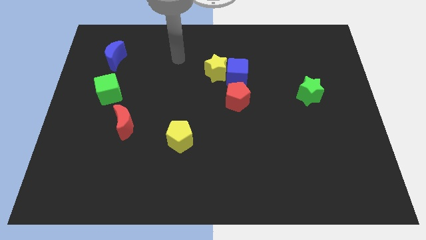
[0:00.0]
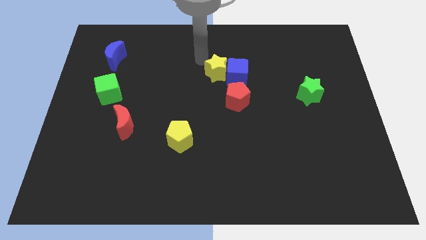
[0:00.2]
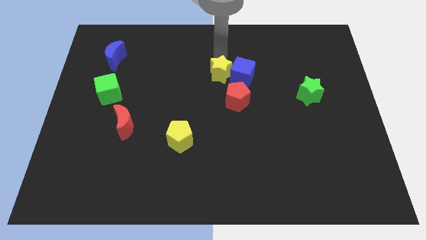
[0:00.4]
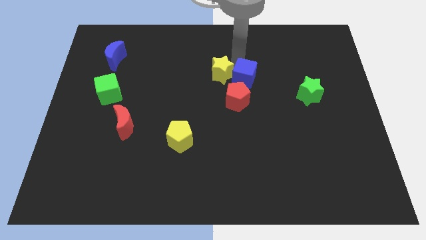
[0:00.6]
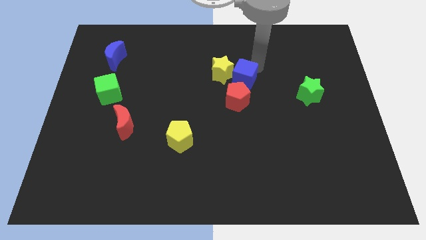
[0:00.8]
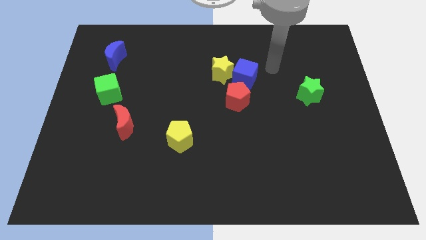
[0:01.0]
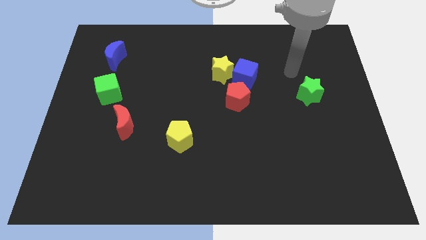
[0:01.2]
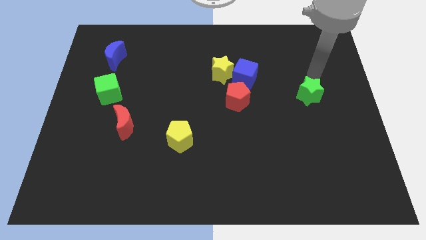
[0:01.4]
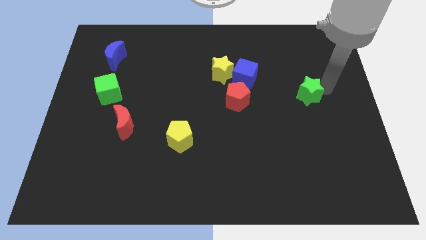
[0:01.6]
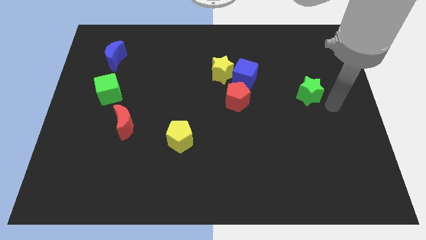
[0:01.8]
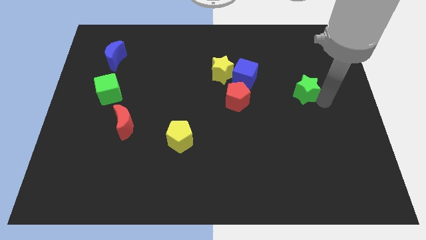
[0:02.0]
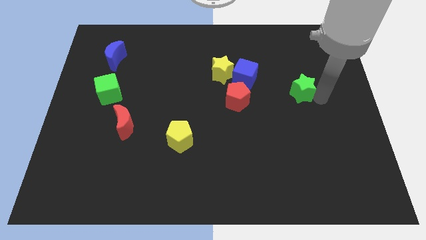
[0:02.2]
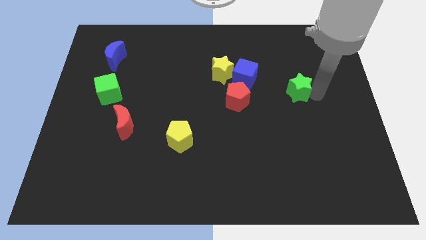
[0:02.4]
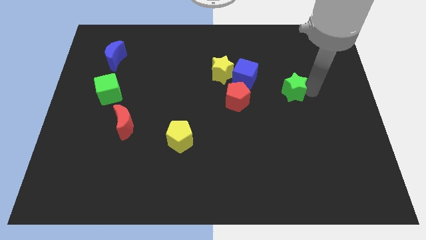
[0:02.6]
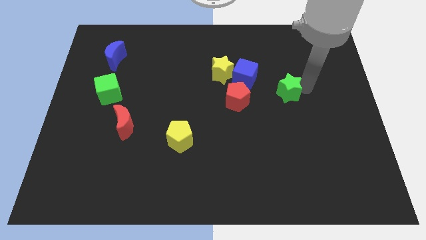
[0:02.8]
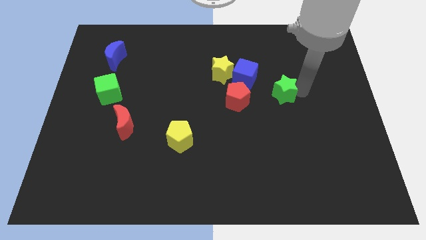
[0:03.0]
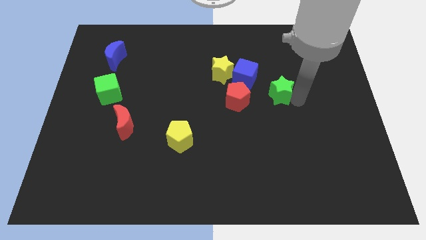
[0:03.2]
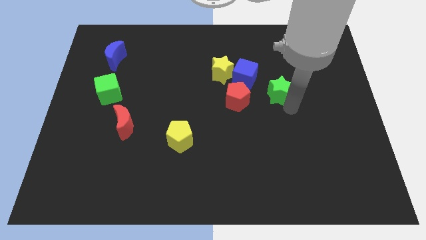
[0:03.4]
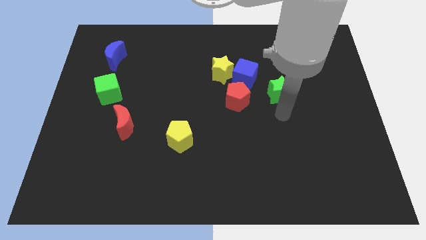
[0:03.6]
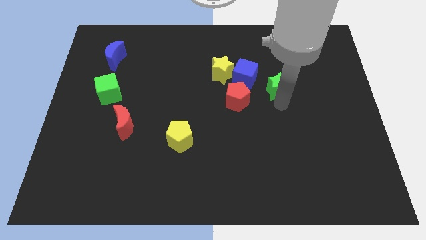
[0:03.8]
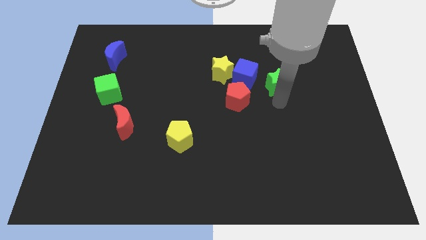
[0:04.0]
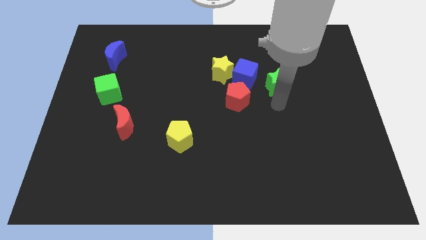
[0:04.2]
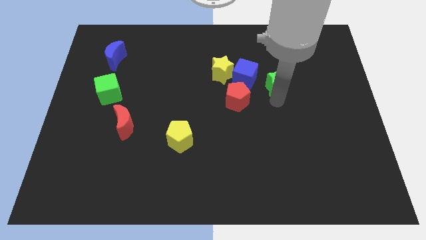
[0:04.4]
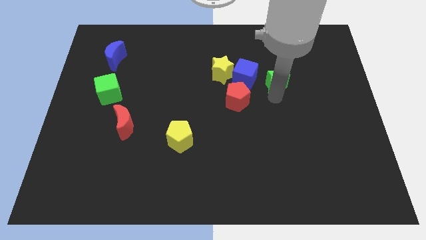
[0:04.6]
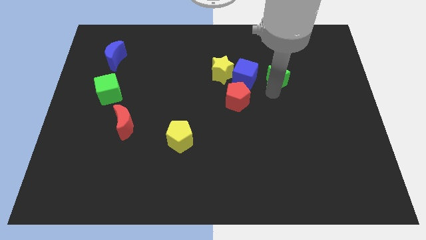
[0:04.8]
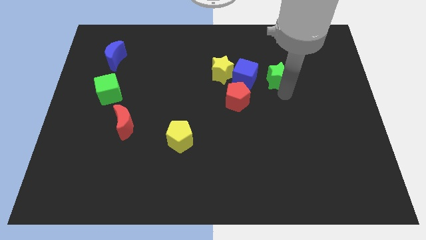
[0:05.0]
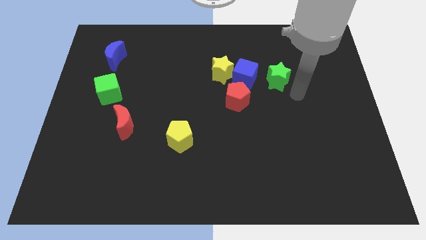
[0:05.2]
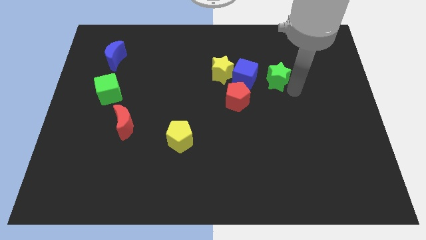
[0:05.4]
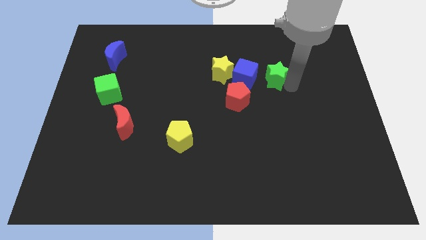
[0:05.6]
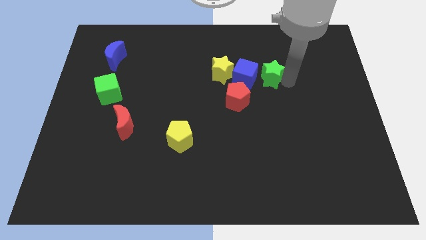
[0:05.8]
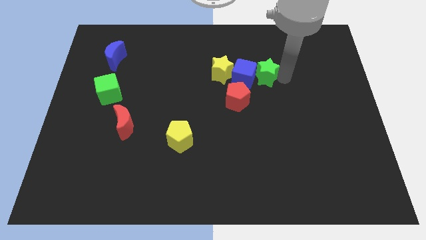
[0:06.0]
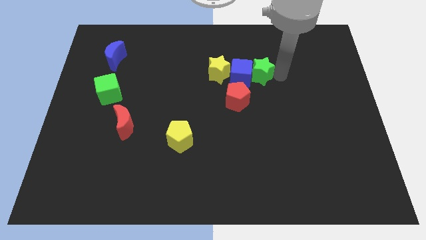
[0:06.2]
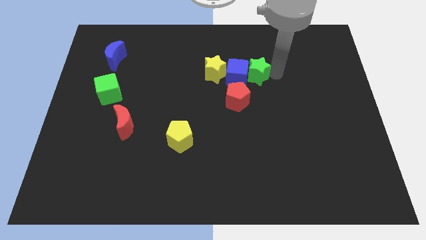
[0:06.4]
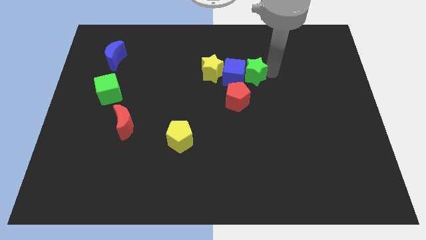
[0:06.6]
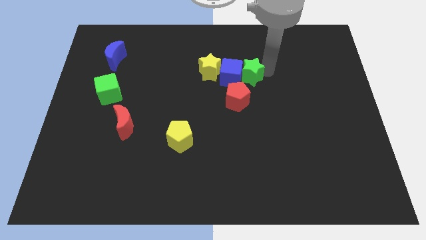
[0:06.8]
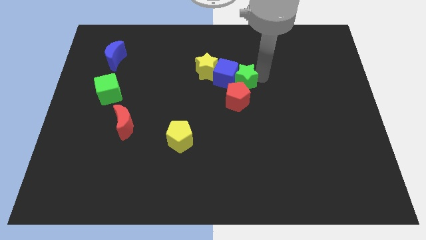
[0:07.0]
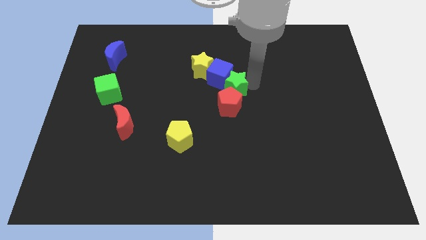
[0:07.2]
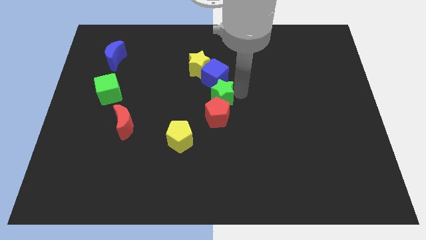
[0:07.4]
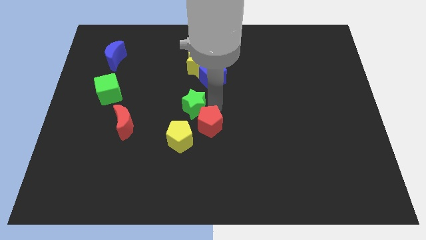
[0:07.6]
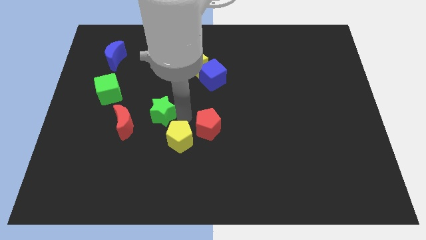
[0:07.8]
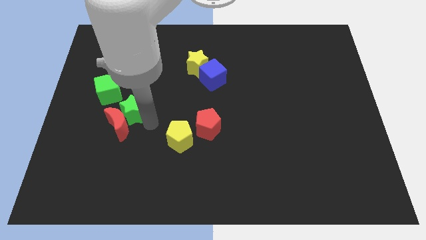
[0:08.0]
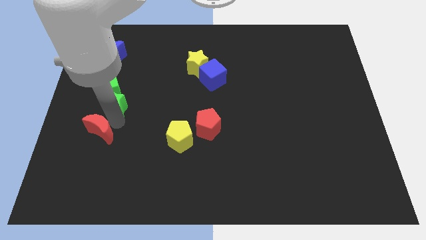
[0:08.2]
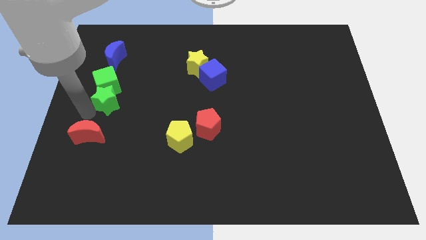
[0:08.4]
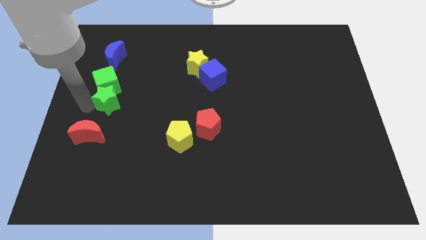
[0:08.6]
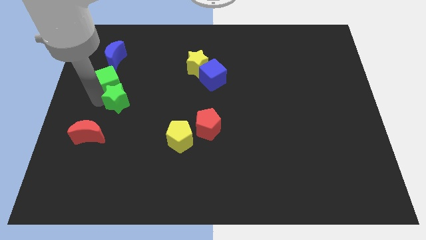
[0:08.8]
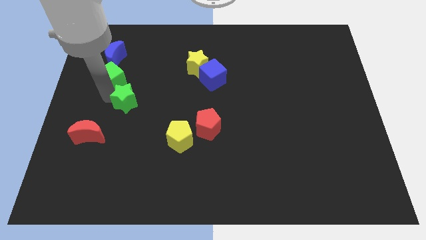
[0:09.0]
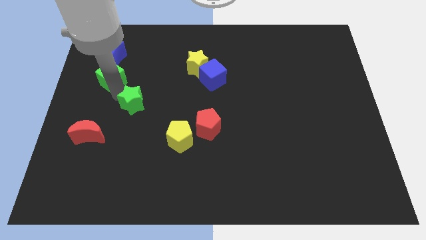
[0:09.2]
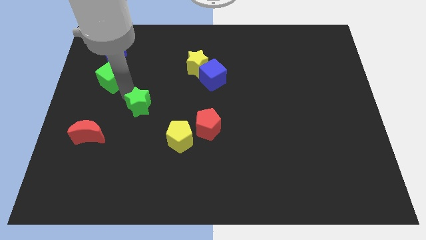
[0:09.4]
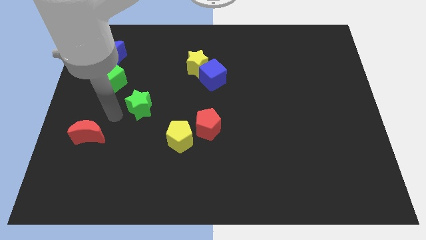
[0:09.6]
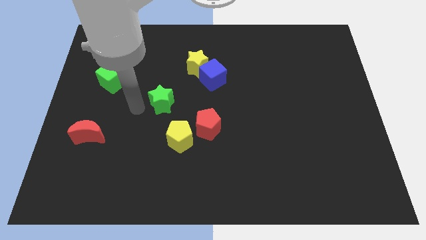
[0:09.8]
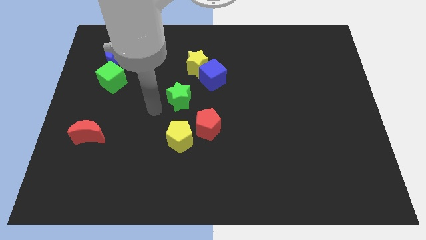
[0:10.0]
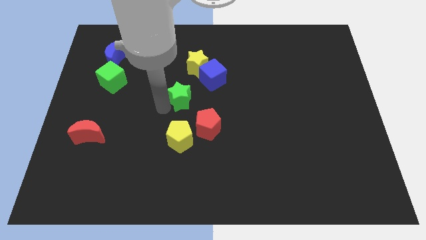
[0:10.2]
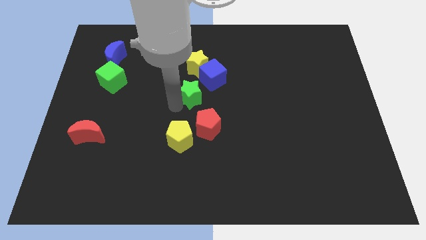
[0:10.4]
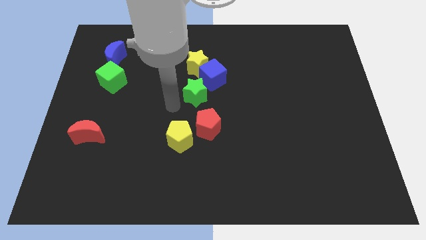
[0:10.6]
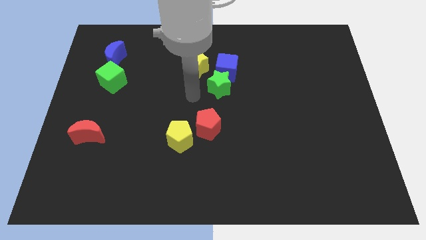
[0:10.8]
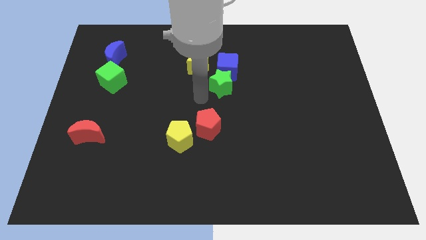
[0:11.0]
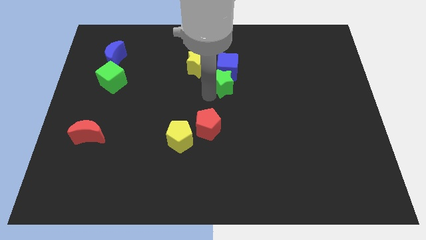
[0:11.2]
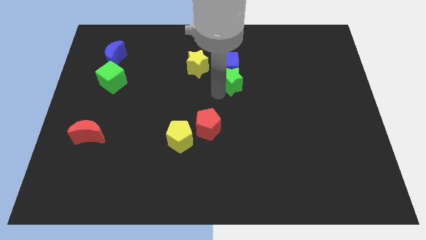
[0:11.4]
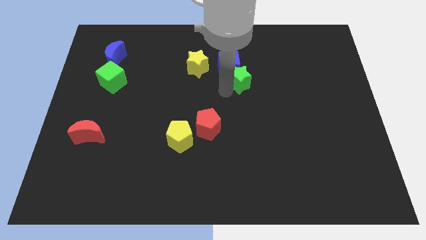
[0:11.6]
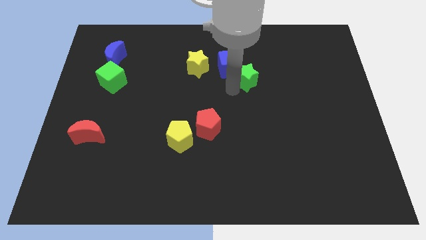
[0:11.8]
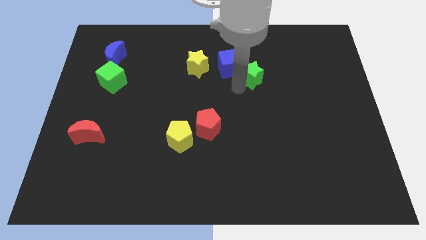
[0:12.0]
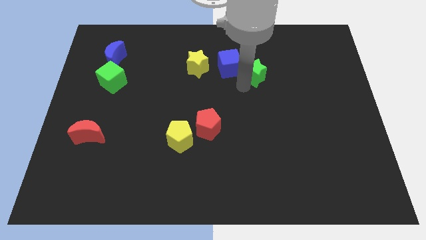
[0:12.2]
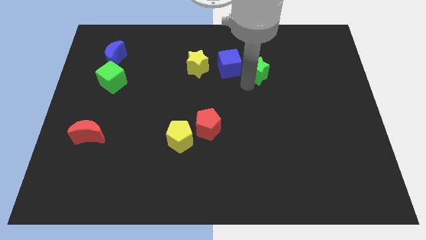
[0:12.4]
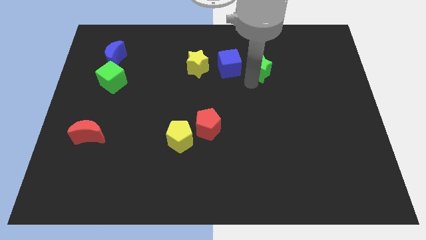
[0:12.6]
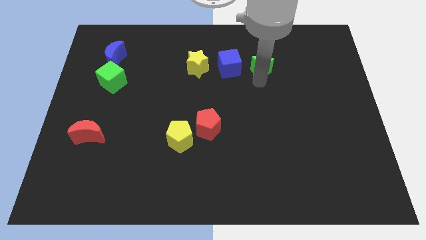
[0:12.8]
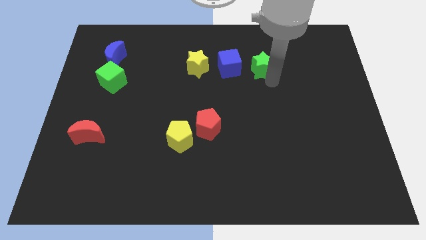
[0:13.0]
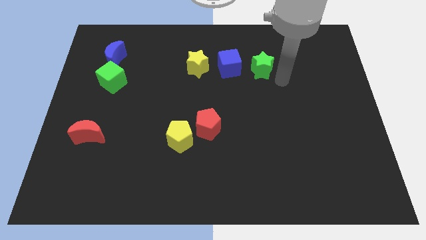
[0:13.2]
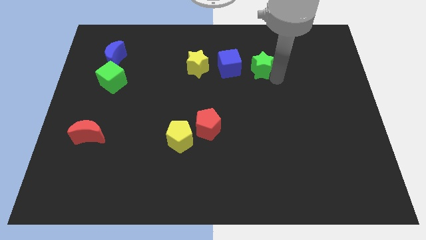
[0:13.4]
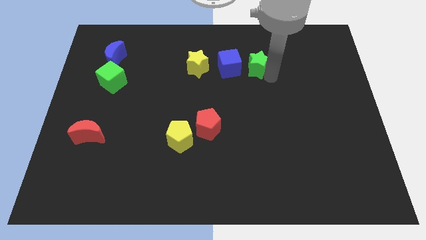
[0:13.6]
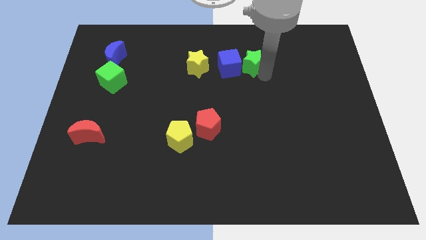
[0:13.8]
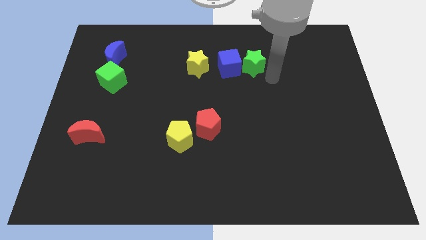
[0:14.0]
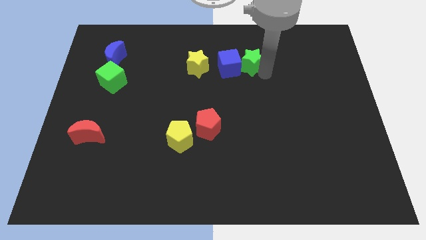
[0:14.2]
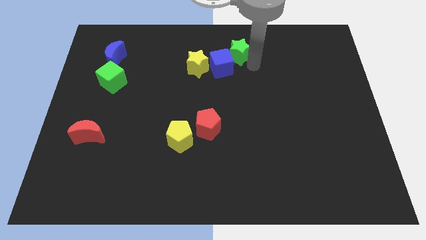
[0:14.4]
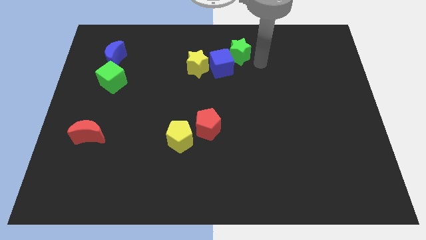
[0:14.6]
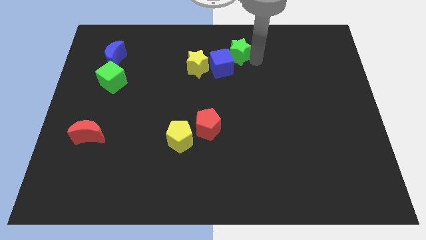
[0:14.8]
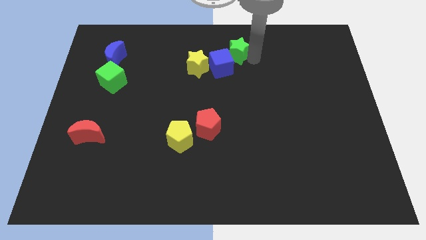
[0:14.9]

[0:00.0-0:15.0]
move the green star to the top side
